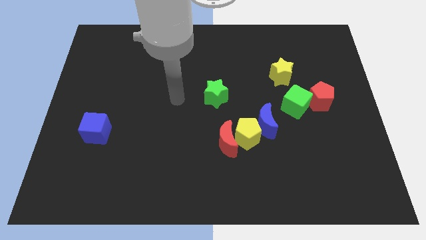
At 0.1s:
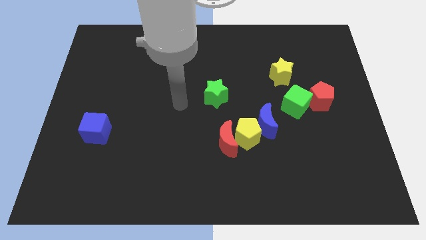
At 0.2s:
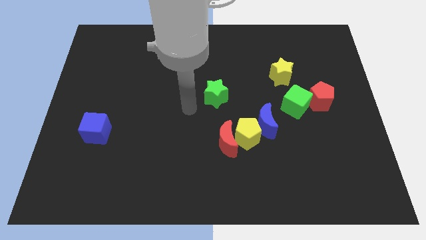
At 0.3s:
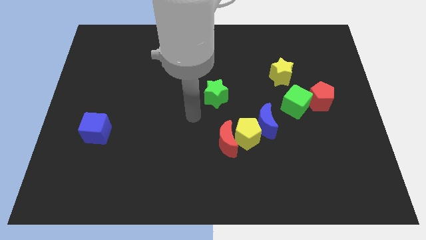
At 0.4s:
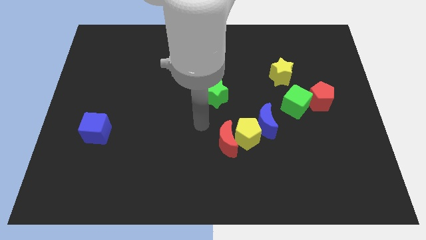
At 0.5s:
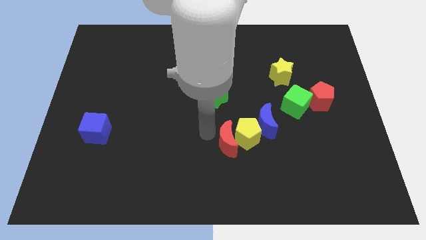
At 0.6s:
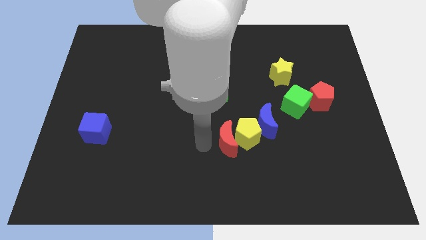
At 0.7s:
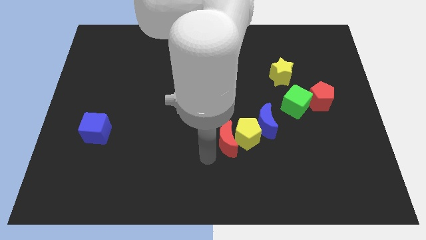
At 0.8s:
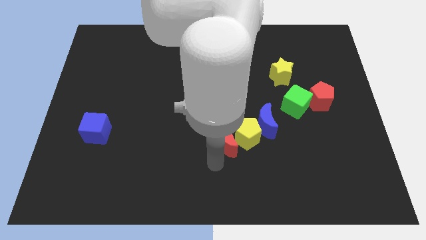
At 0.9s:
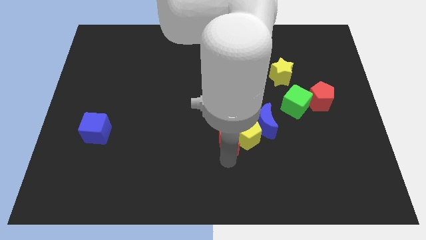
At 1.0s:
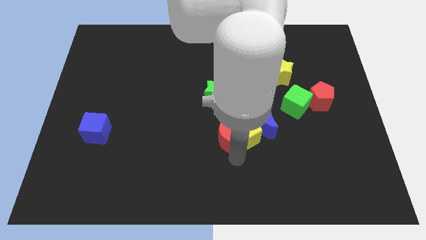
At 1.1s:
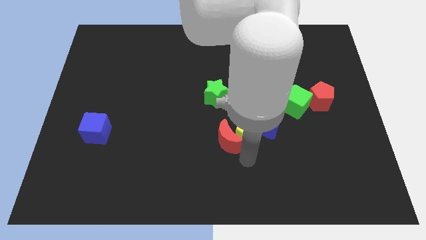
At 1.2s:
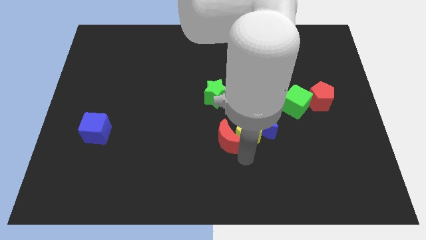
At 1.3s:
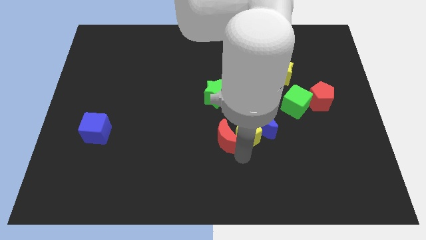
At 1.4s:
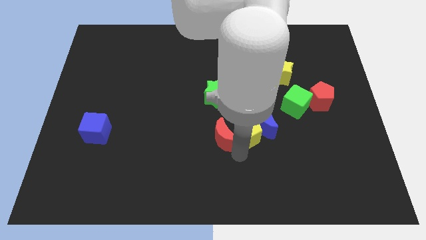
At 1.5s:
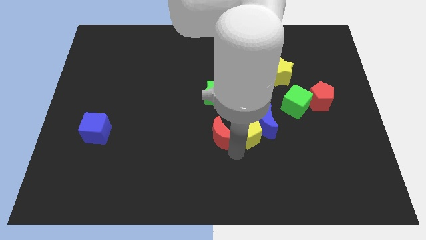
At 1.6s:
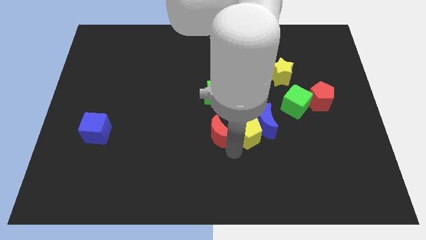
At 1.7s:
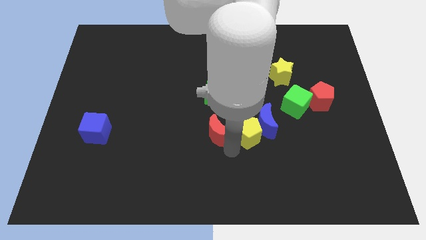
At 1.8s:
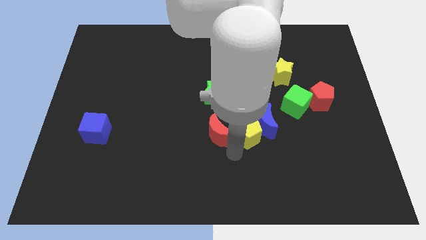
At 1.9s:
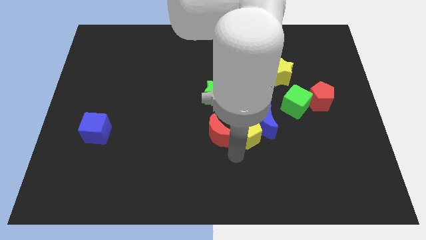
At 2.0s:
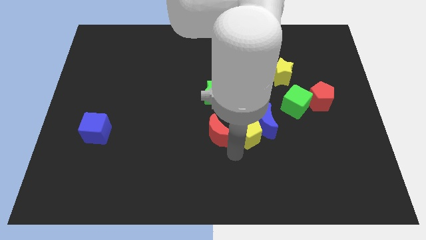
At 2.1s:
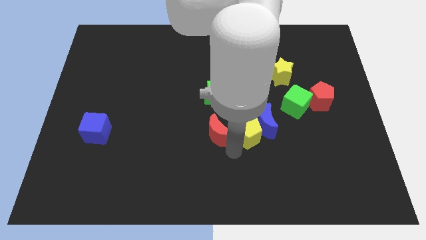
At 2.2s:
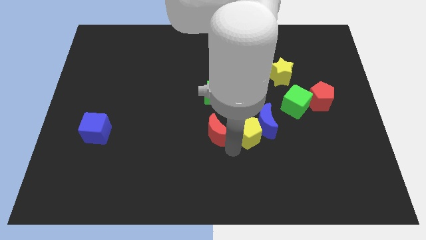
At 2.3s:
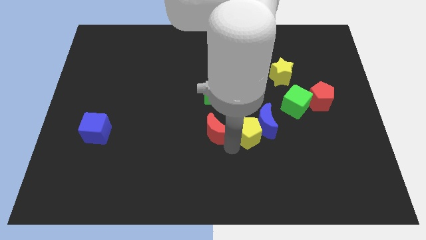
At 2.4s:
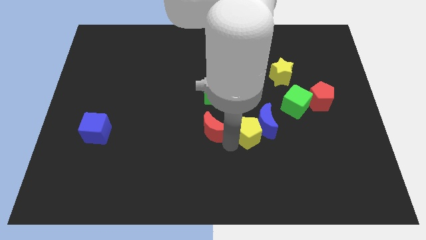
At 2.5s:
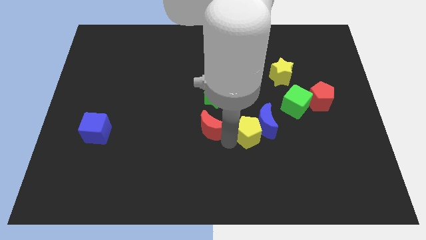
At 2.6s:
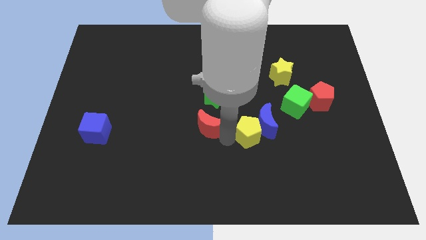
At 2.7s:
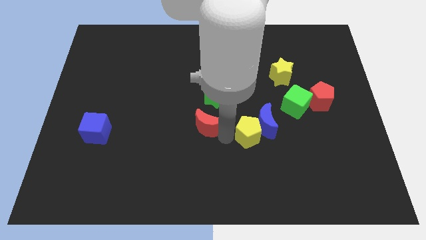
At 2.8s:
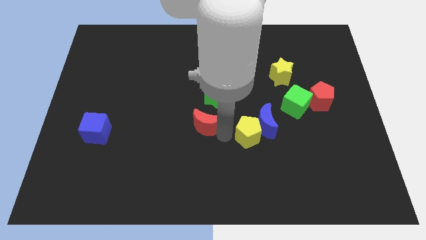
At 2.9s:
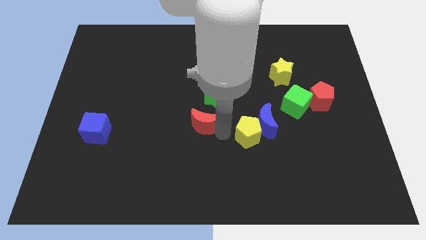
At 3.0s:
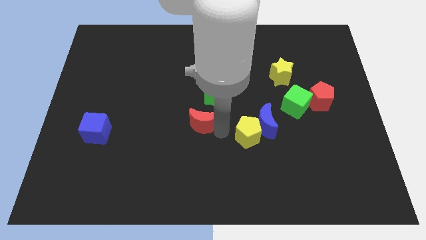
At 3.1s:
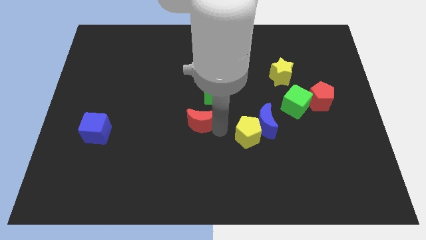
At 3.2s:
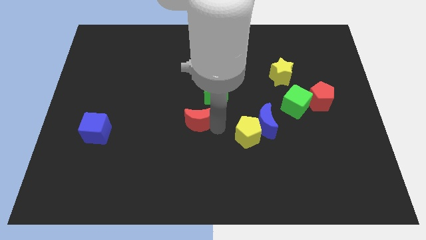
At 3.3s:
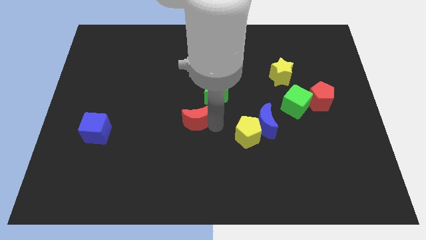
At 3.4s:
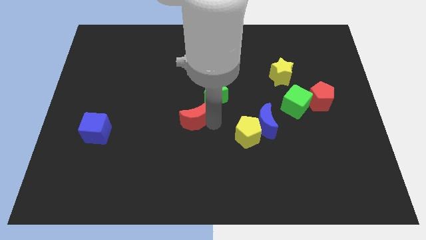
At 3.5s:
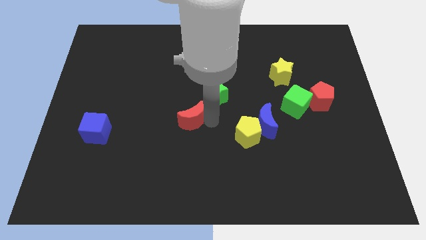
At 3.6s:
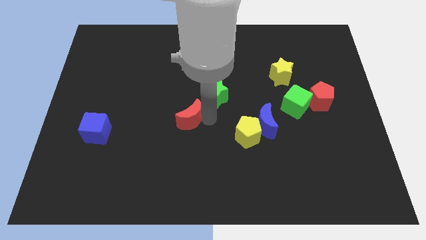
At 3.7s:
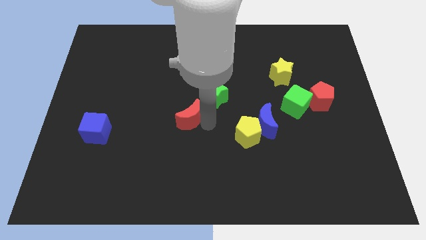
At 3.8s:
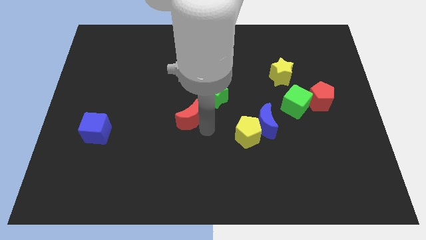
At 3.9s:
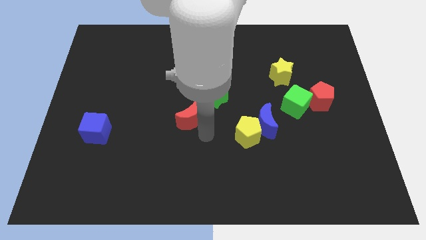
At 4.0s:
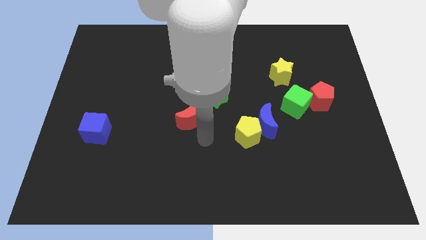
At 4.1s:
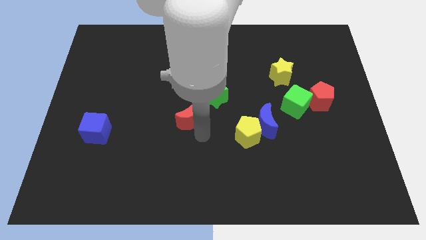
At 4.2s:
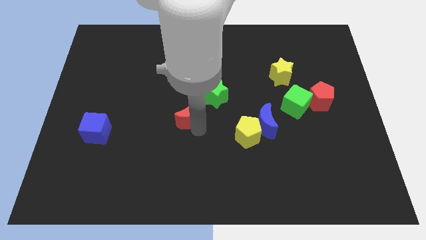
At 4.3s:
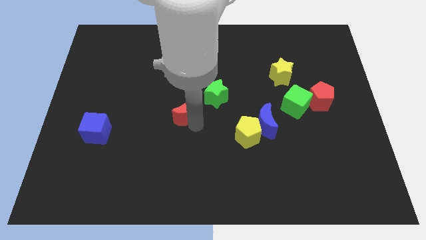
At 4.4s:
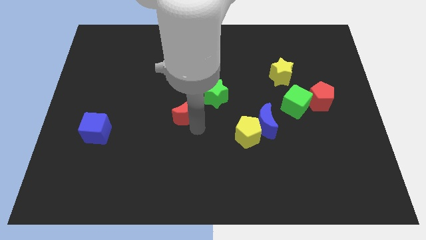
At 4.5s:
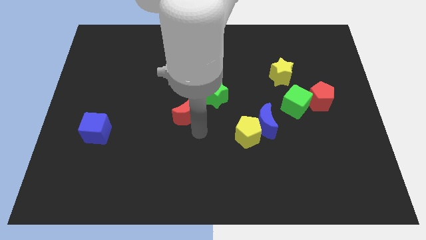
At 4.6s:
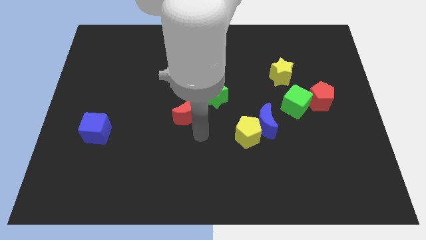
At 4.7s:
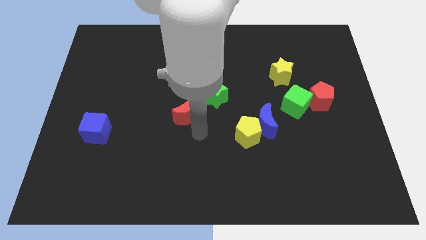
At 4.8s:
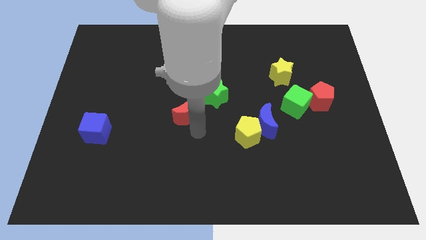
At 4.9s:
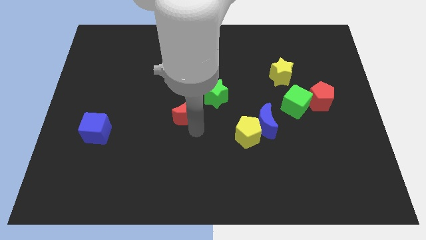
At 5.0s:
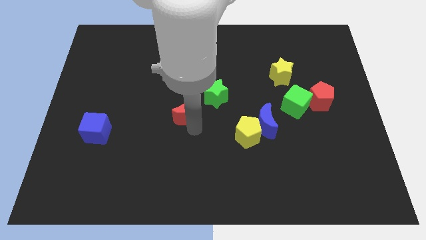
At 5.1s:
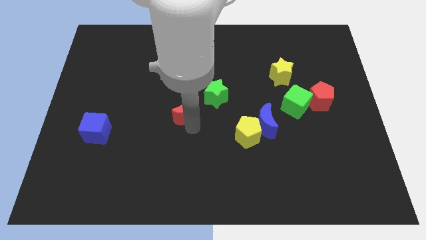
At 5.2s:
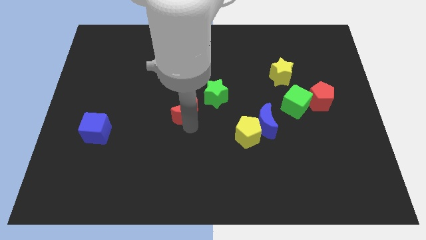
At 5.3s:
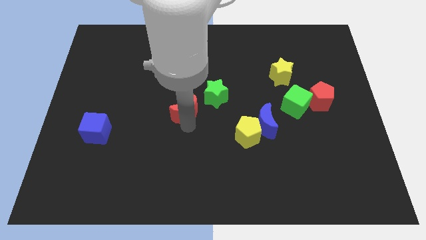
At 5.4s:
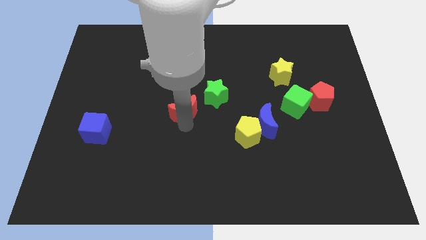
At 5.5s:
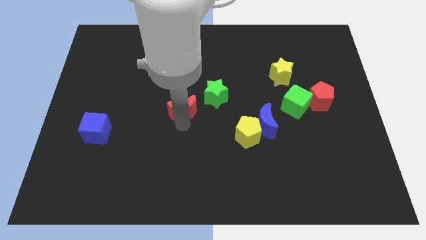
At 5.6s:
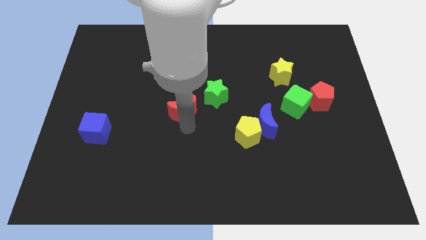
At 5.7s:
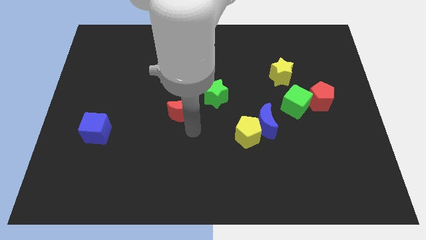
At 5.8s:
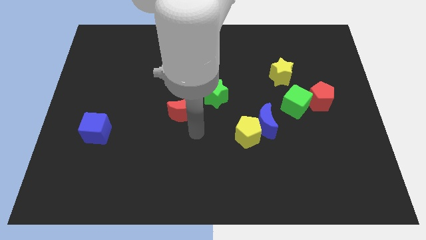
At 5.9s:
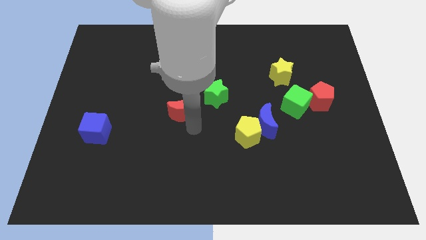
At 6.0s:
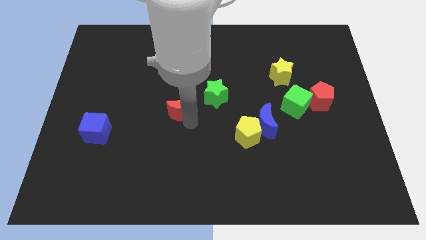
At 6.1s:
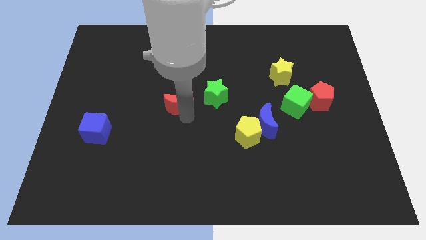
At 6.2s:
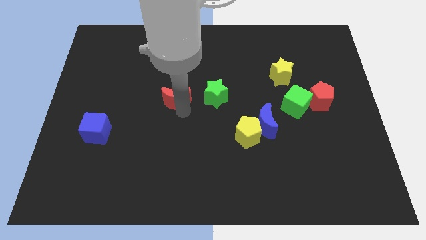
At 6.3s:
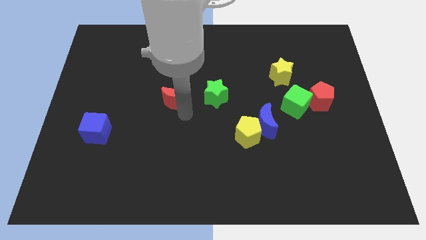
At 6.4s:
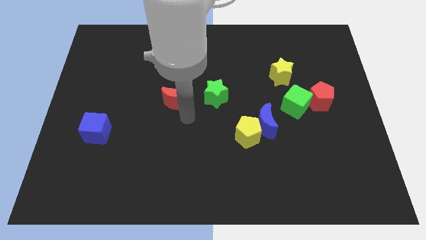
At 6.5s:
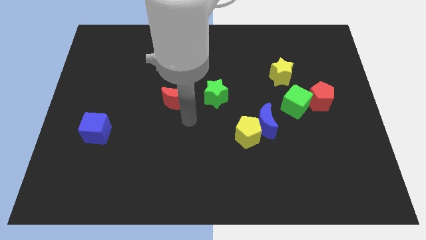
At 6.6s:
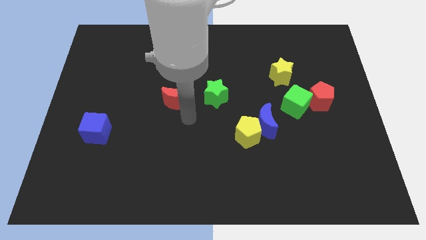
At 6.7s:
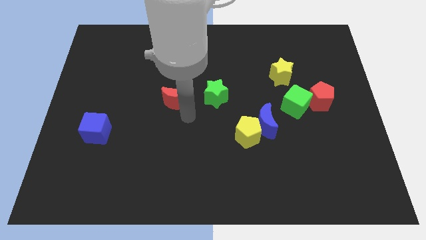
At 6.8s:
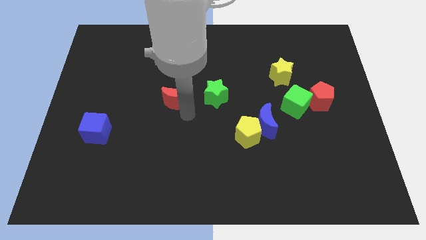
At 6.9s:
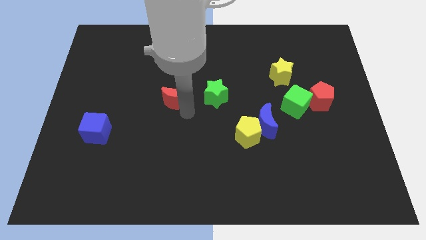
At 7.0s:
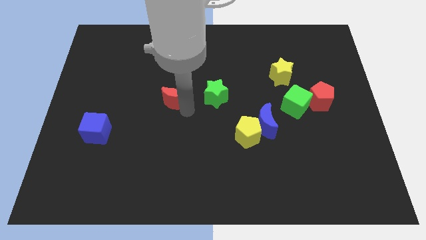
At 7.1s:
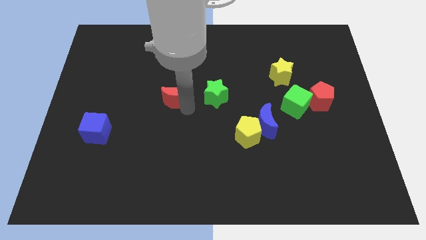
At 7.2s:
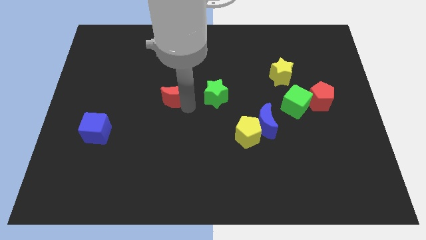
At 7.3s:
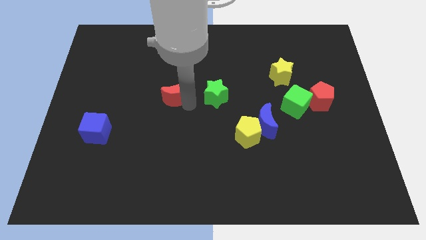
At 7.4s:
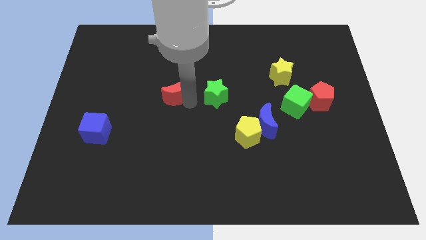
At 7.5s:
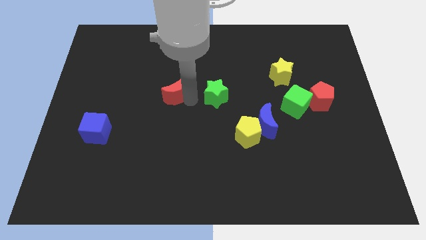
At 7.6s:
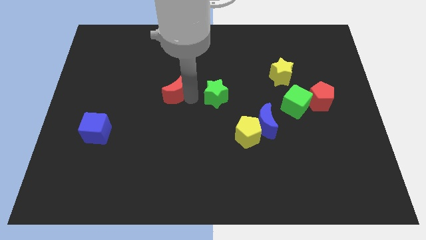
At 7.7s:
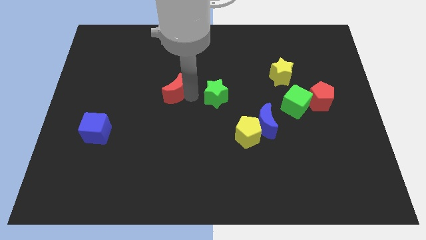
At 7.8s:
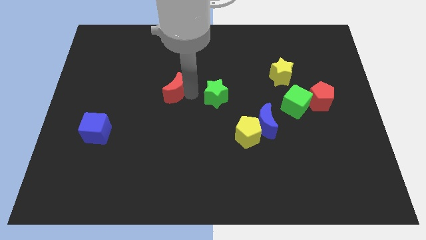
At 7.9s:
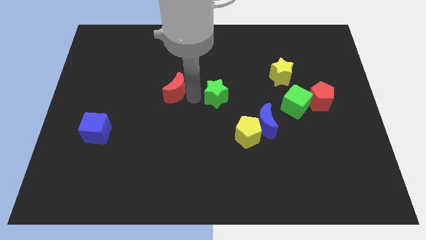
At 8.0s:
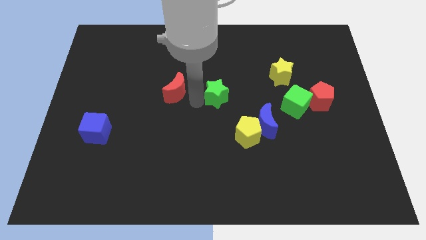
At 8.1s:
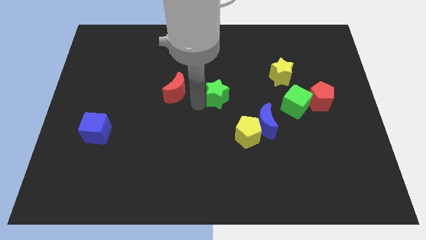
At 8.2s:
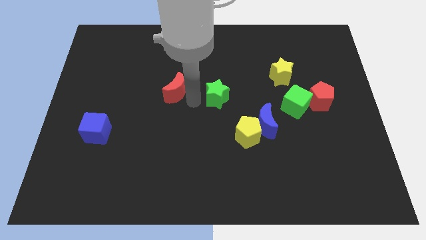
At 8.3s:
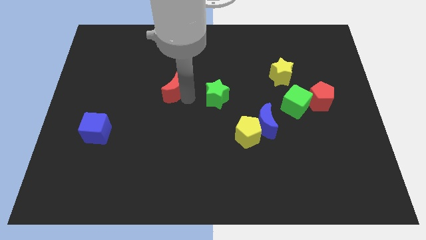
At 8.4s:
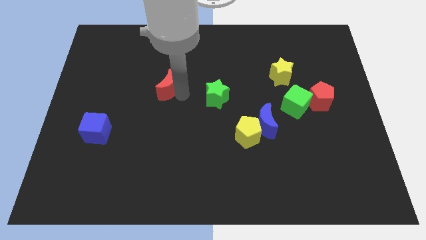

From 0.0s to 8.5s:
push the red moon diagonally up and to the left
